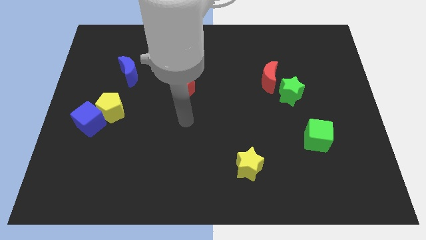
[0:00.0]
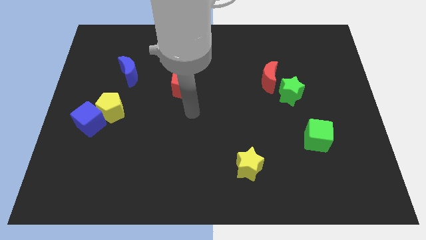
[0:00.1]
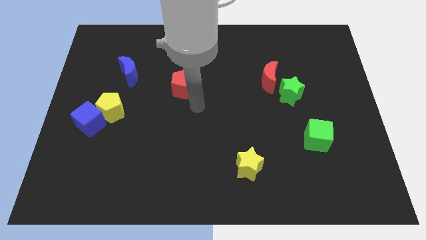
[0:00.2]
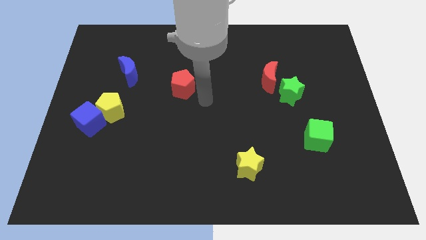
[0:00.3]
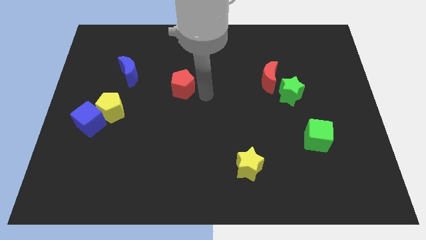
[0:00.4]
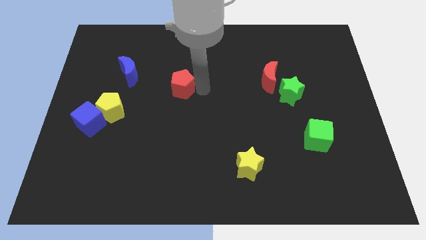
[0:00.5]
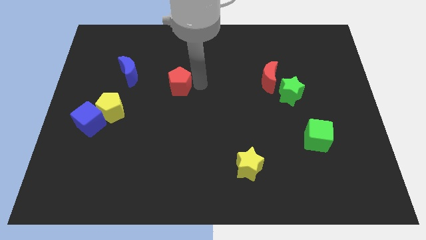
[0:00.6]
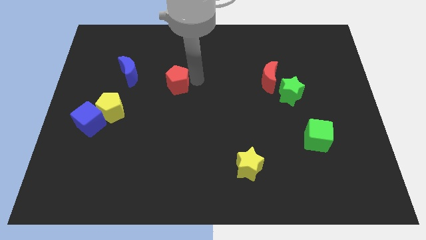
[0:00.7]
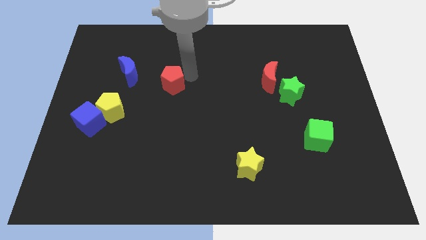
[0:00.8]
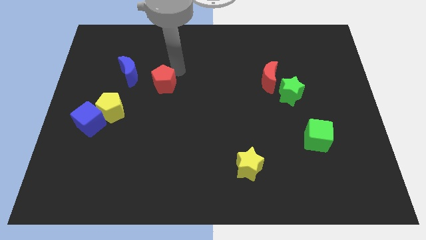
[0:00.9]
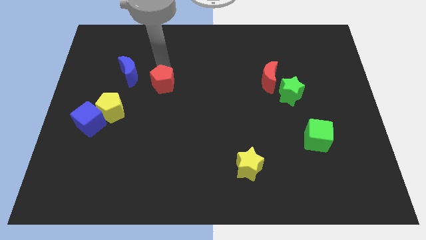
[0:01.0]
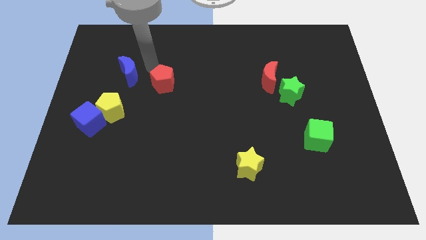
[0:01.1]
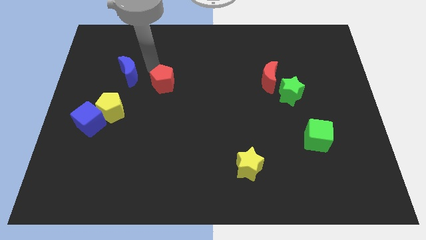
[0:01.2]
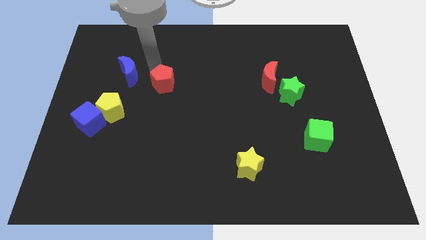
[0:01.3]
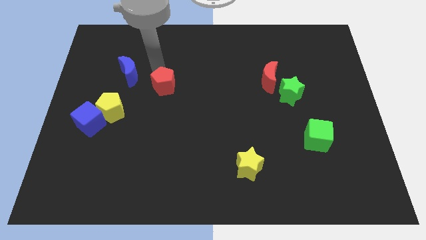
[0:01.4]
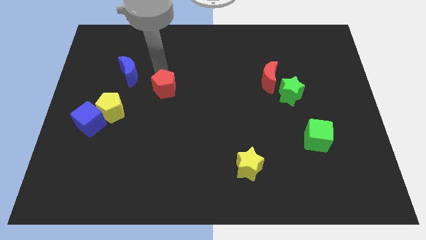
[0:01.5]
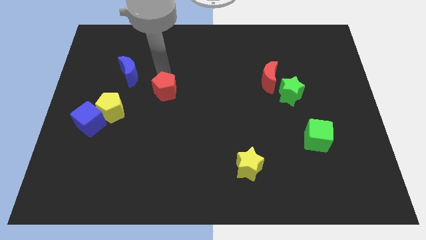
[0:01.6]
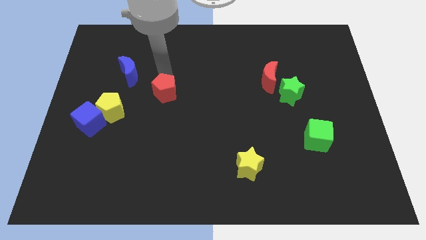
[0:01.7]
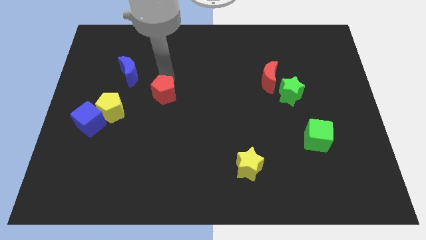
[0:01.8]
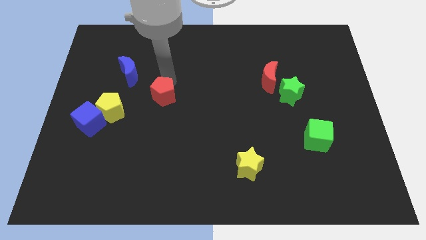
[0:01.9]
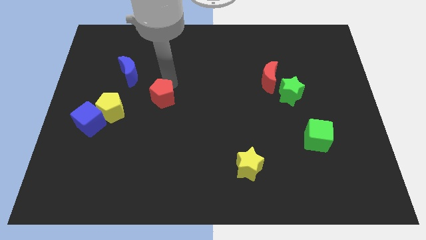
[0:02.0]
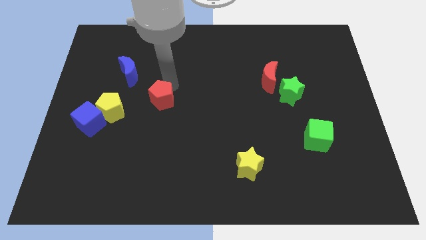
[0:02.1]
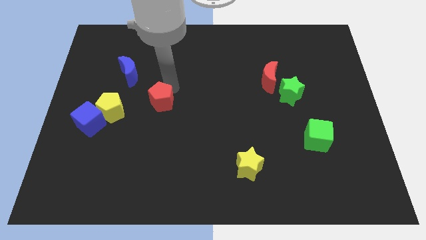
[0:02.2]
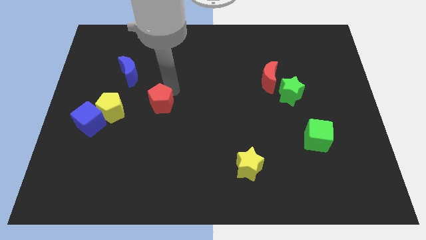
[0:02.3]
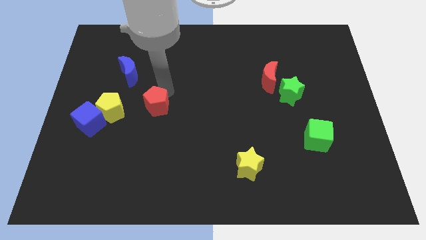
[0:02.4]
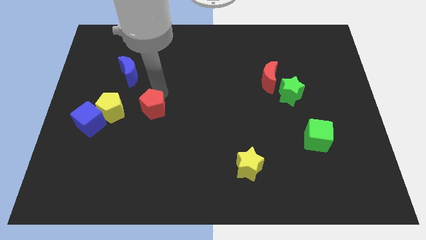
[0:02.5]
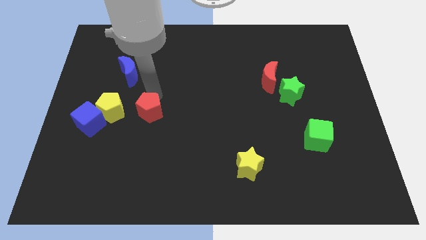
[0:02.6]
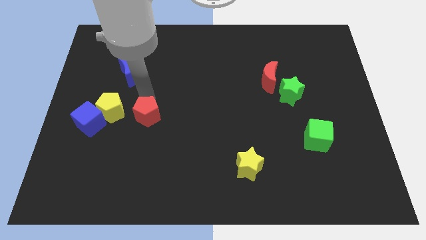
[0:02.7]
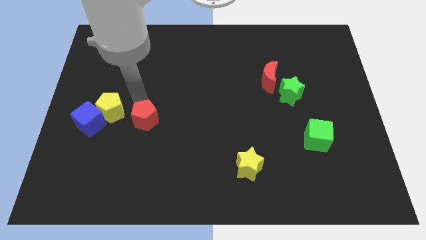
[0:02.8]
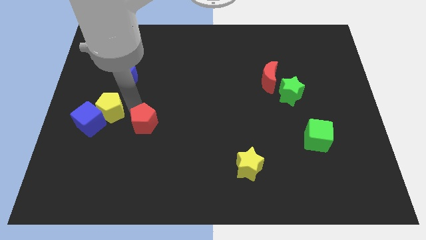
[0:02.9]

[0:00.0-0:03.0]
push the red pentagon a bit down

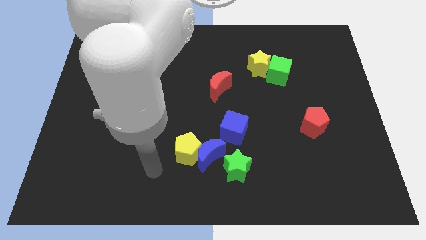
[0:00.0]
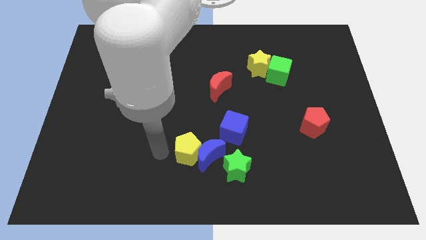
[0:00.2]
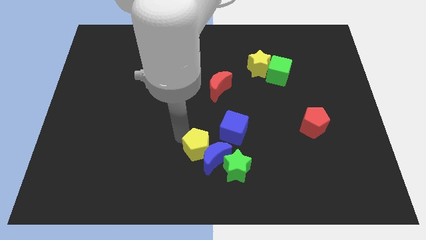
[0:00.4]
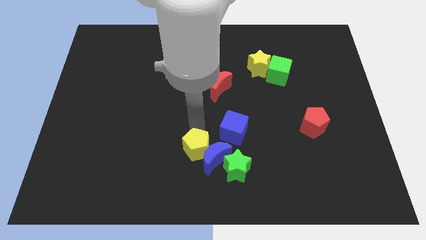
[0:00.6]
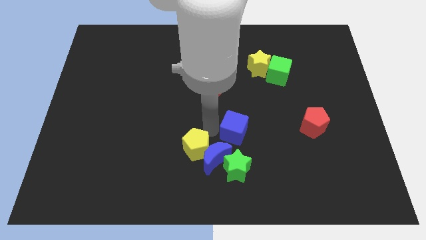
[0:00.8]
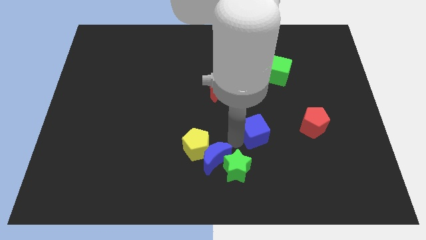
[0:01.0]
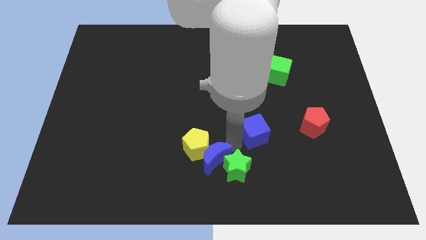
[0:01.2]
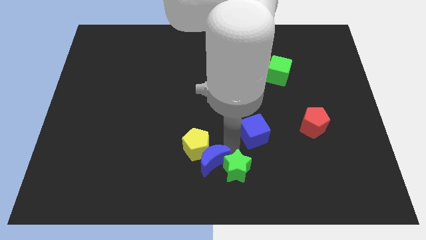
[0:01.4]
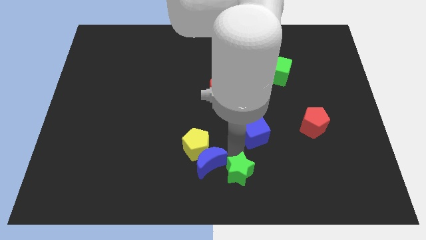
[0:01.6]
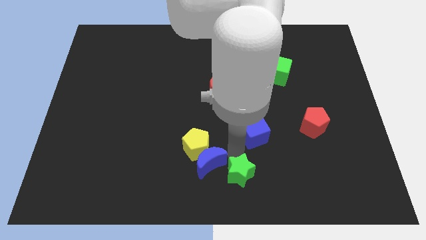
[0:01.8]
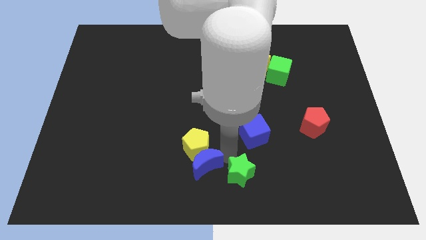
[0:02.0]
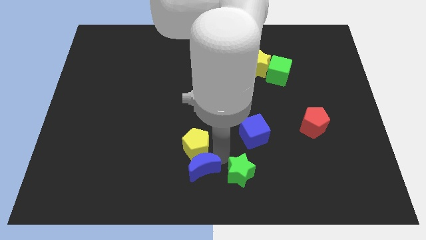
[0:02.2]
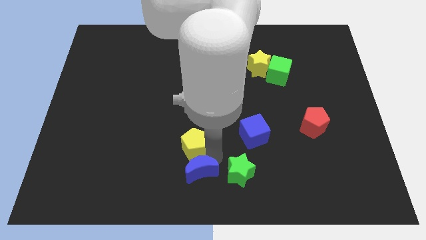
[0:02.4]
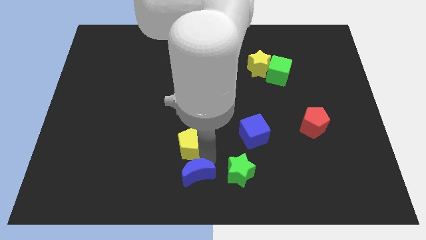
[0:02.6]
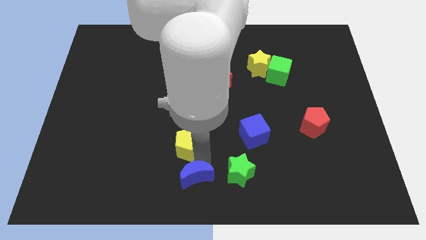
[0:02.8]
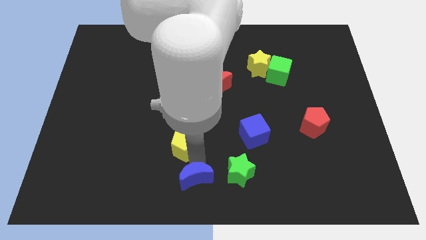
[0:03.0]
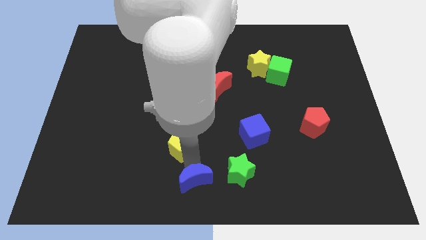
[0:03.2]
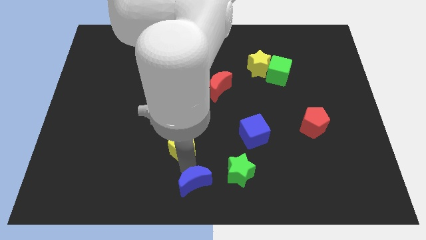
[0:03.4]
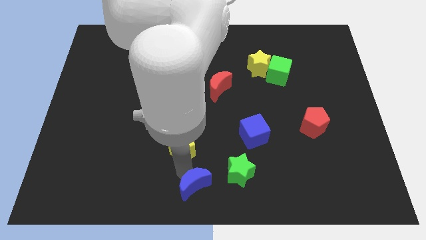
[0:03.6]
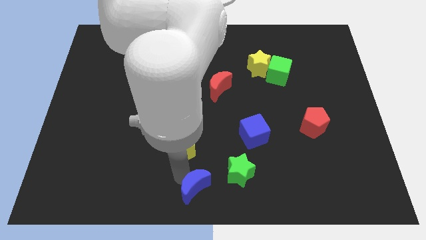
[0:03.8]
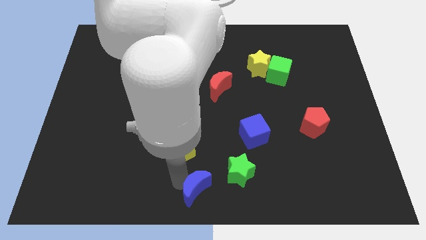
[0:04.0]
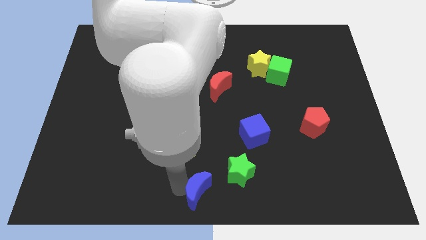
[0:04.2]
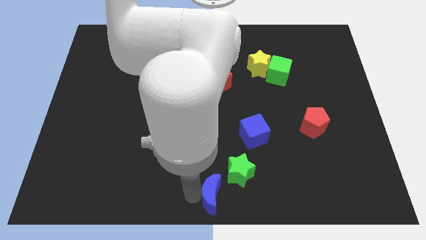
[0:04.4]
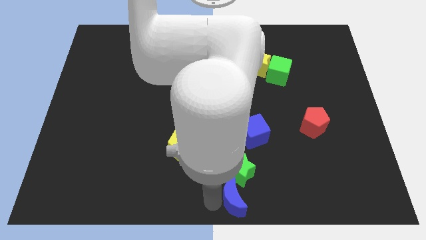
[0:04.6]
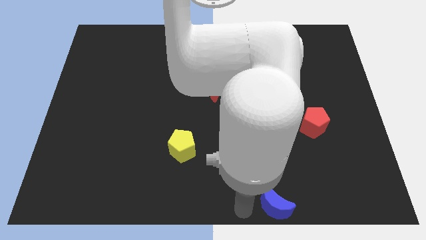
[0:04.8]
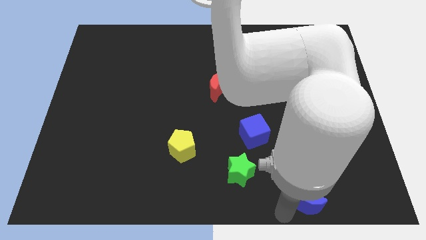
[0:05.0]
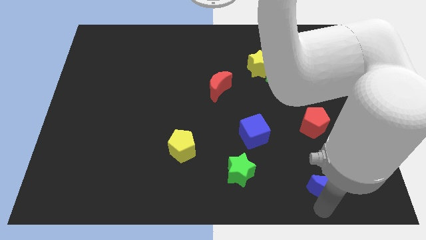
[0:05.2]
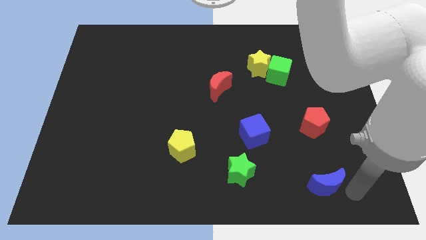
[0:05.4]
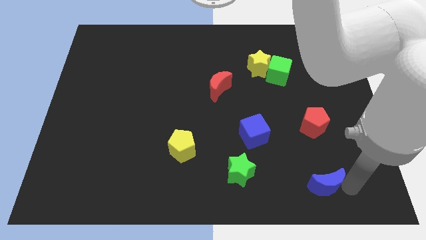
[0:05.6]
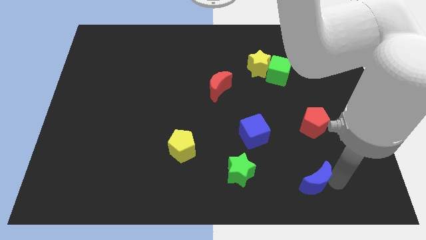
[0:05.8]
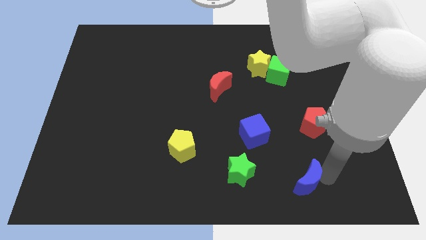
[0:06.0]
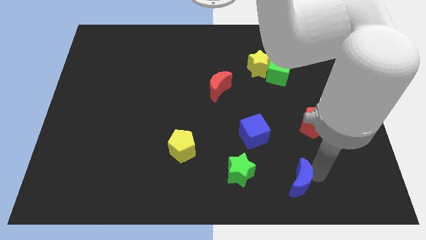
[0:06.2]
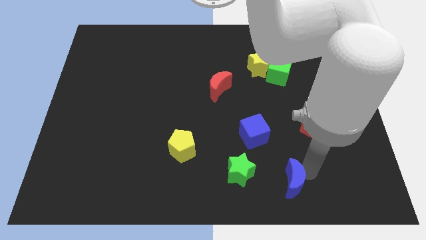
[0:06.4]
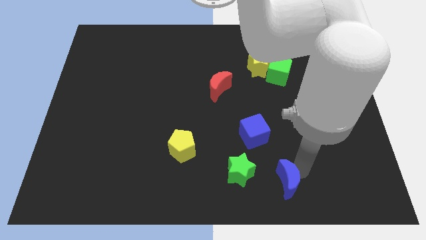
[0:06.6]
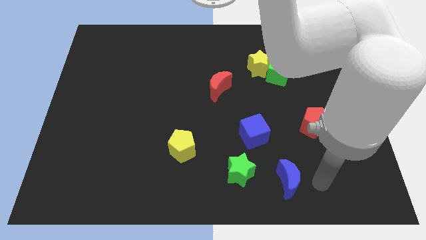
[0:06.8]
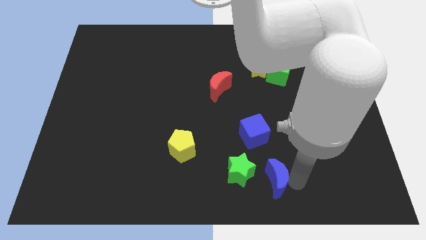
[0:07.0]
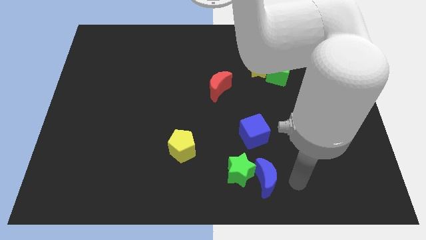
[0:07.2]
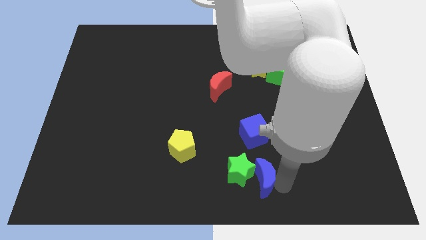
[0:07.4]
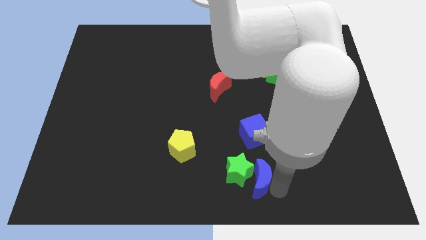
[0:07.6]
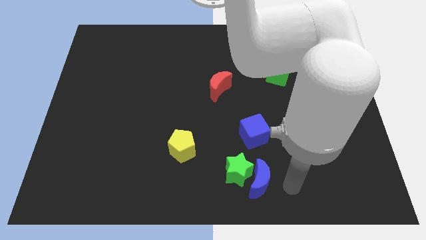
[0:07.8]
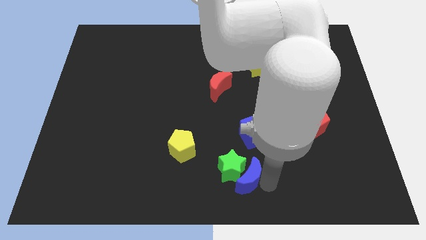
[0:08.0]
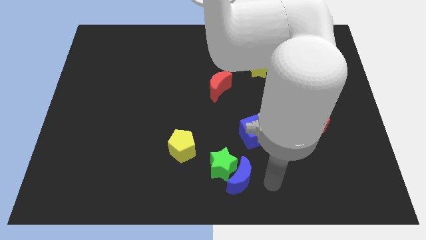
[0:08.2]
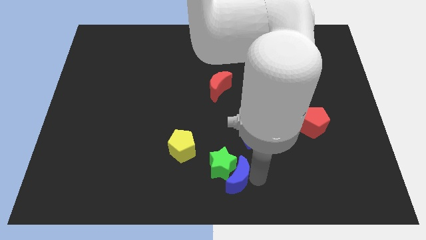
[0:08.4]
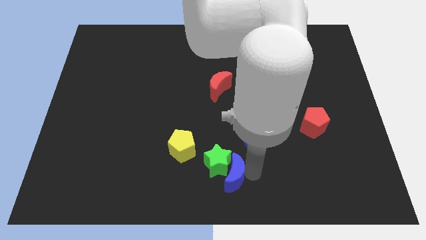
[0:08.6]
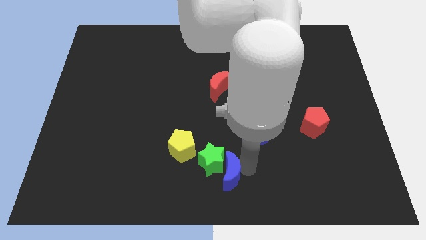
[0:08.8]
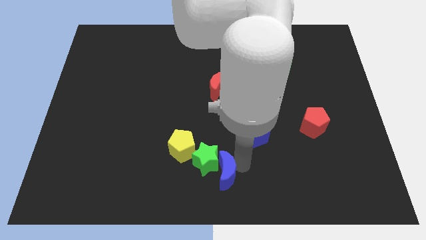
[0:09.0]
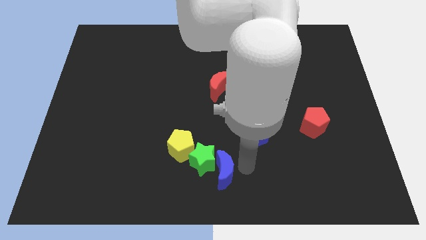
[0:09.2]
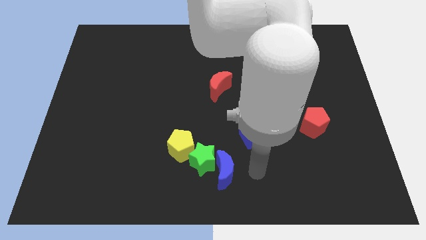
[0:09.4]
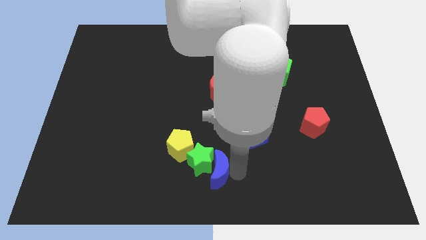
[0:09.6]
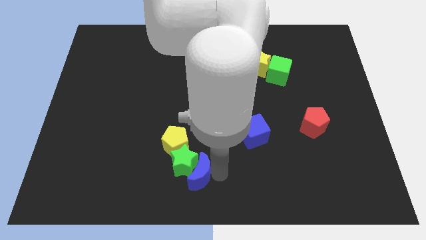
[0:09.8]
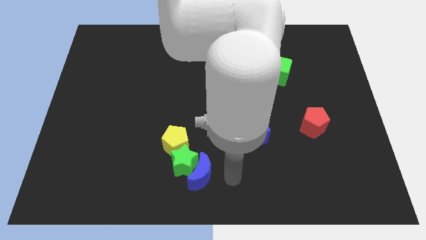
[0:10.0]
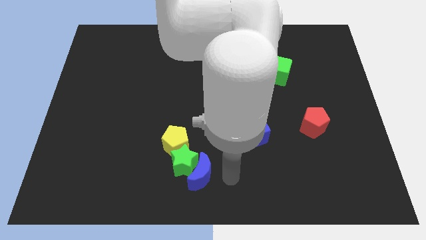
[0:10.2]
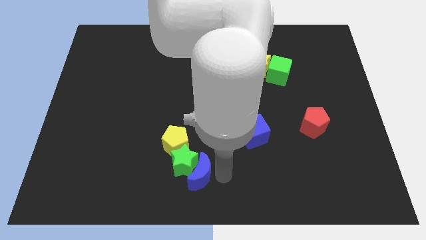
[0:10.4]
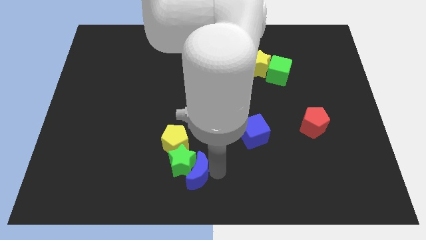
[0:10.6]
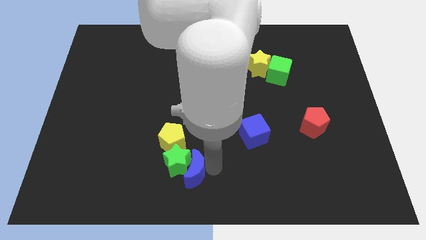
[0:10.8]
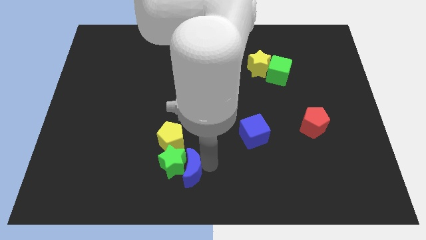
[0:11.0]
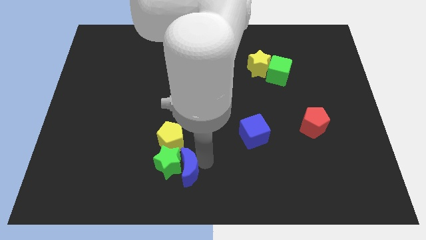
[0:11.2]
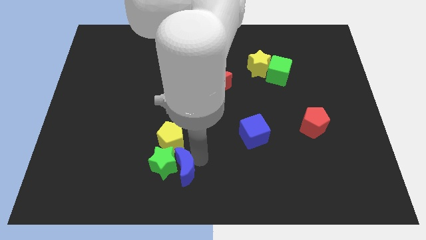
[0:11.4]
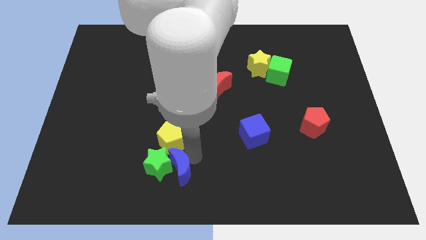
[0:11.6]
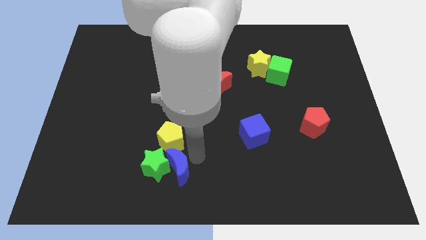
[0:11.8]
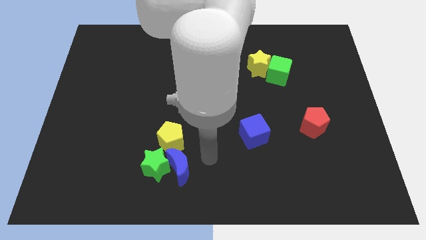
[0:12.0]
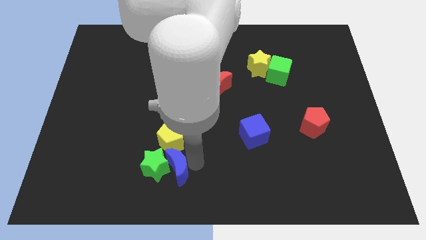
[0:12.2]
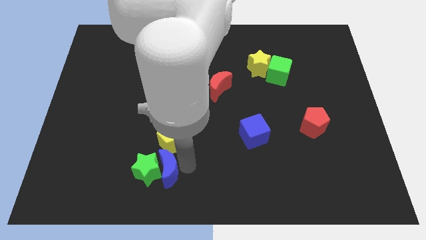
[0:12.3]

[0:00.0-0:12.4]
push the blue moon a bit to the left
